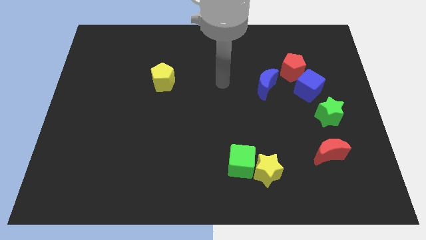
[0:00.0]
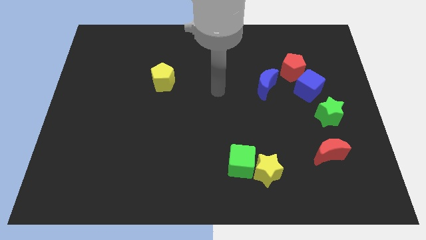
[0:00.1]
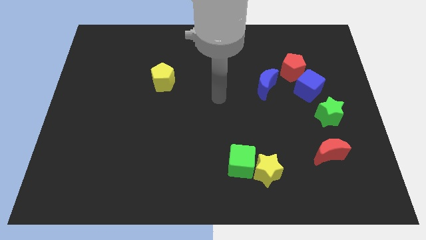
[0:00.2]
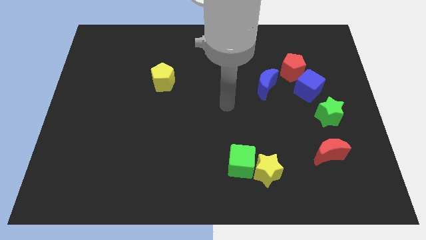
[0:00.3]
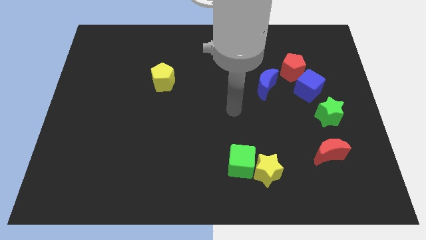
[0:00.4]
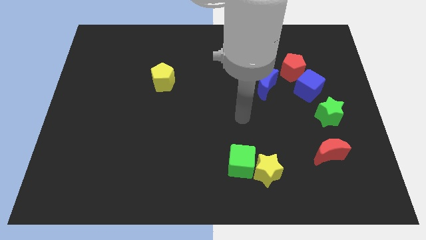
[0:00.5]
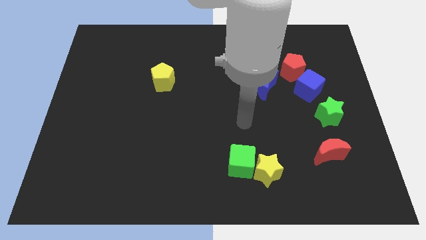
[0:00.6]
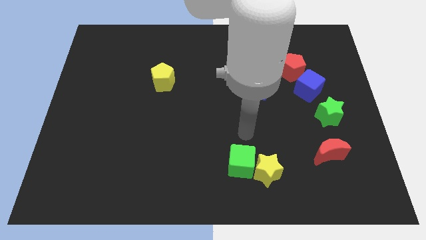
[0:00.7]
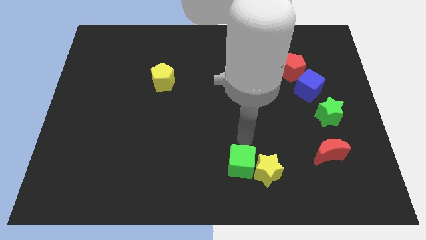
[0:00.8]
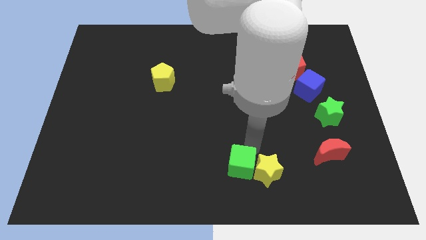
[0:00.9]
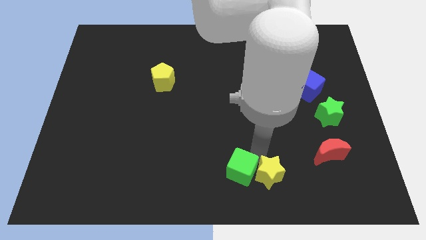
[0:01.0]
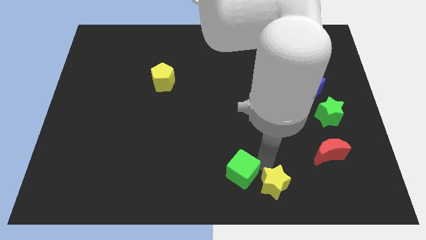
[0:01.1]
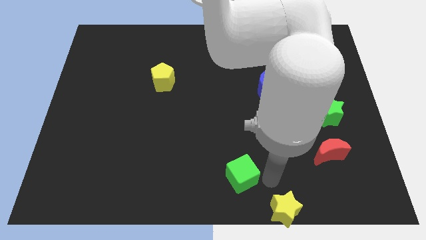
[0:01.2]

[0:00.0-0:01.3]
separate the green cube from the yellow star

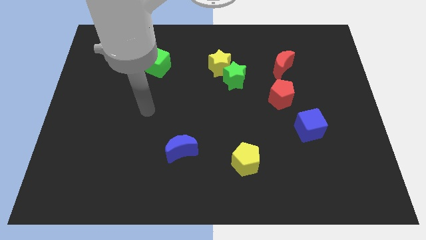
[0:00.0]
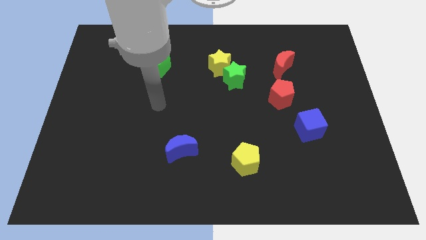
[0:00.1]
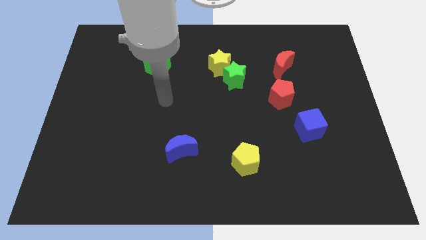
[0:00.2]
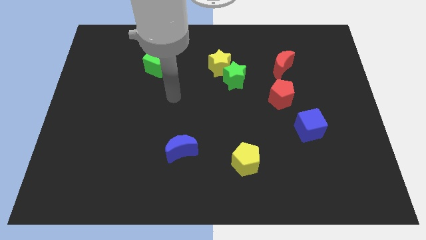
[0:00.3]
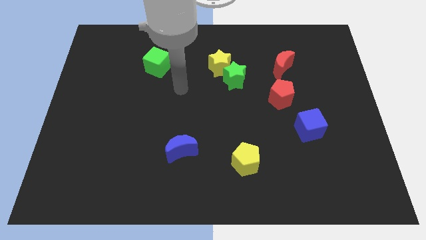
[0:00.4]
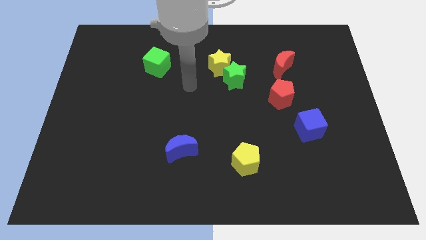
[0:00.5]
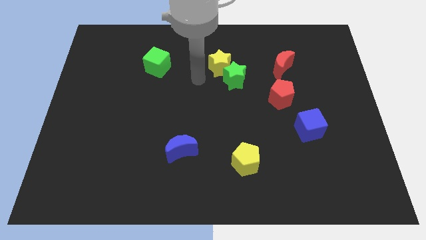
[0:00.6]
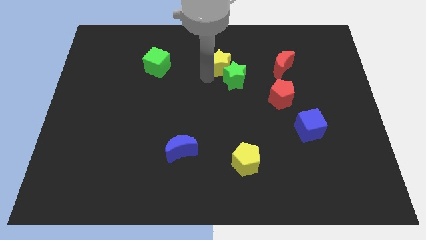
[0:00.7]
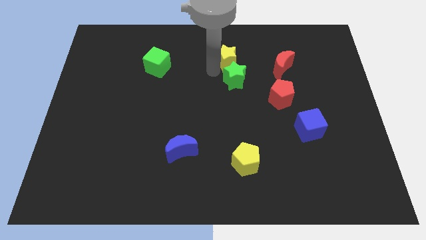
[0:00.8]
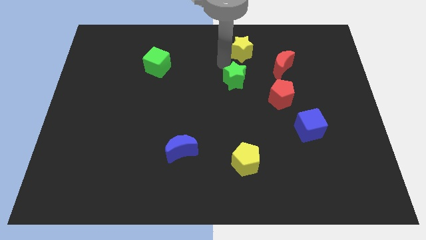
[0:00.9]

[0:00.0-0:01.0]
pull the green star apart from the yellow star

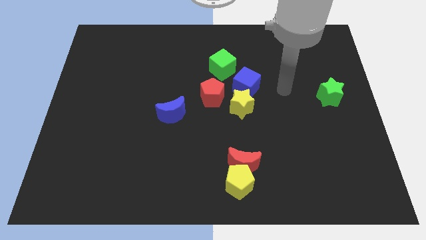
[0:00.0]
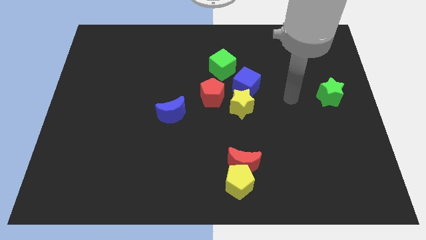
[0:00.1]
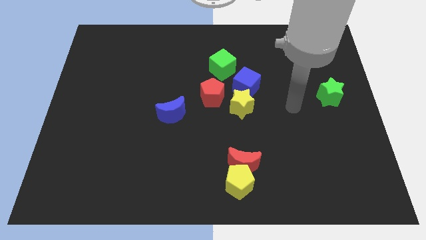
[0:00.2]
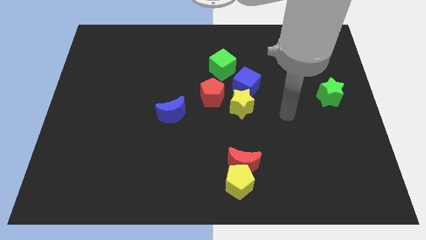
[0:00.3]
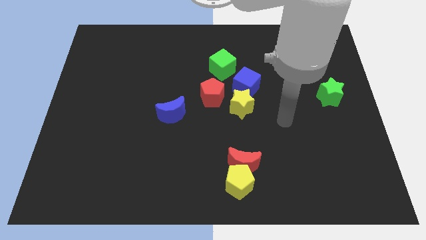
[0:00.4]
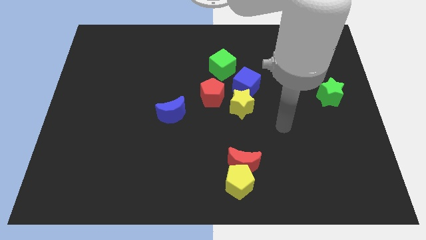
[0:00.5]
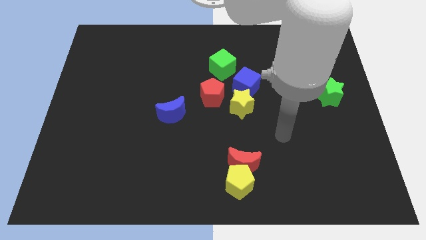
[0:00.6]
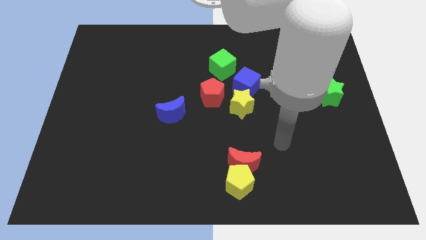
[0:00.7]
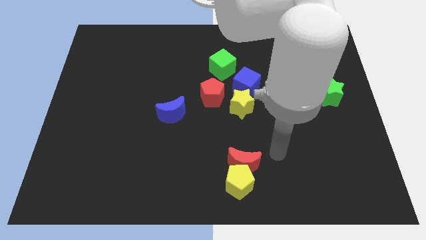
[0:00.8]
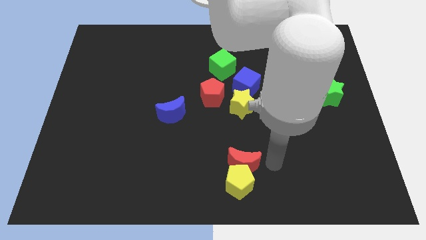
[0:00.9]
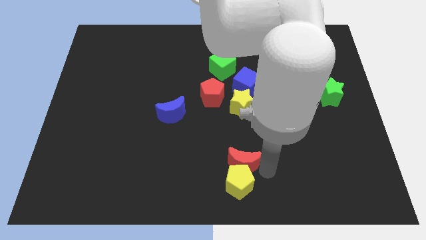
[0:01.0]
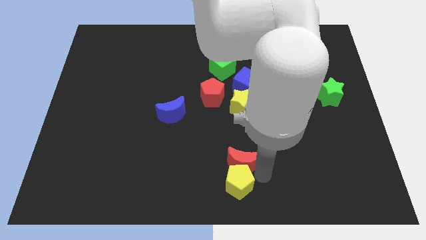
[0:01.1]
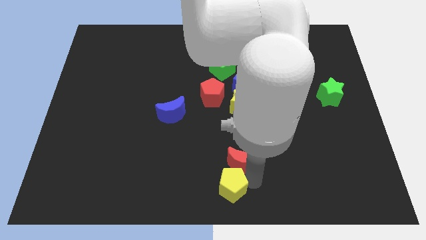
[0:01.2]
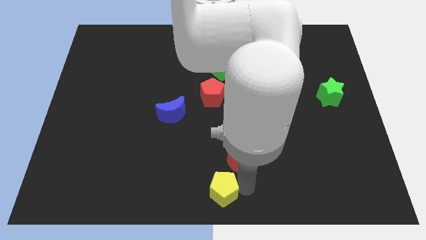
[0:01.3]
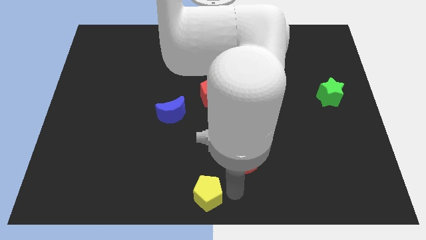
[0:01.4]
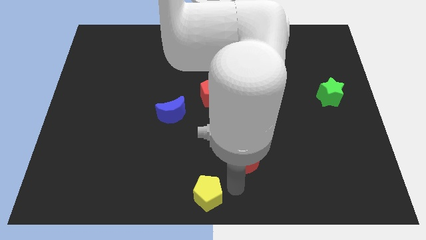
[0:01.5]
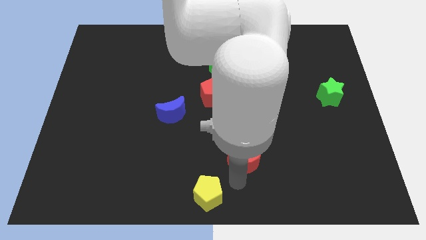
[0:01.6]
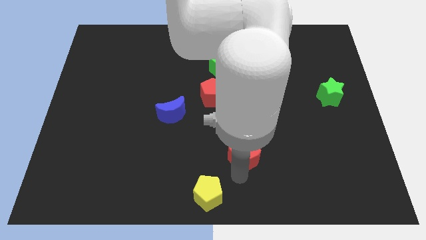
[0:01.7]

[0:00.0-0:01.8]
pull the red moon apart from the yellow pentagon

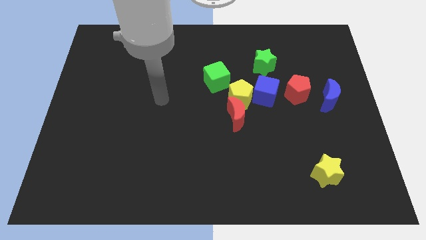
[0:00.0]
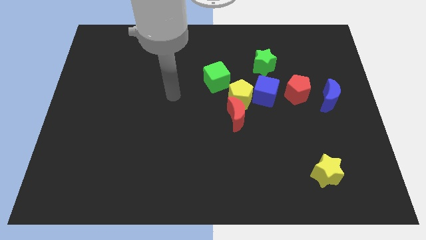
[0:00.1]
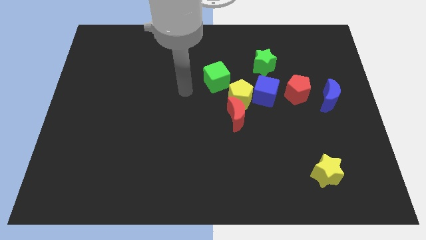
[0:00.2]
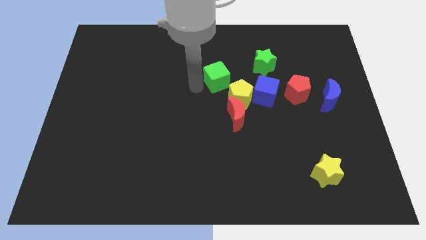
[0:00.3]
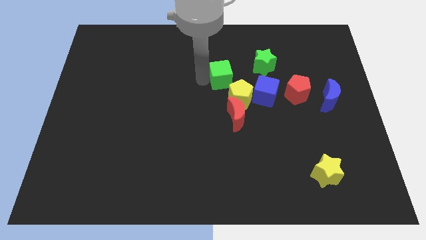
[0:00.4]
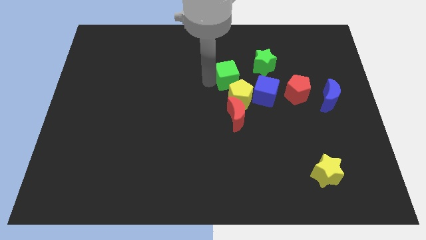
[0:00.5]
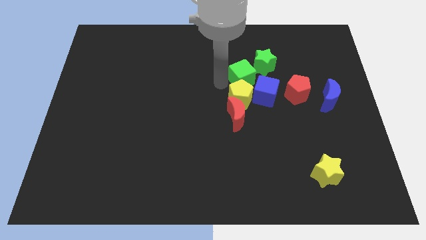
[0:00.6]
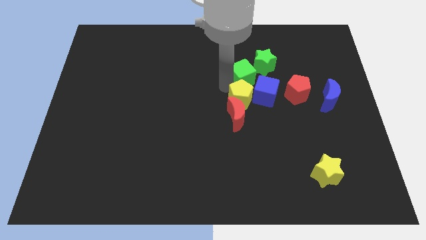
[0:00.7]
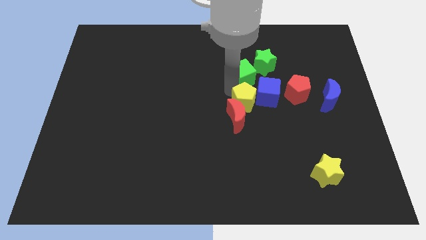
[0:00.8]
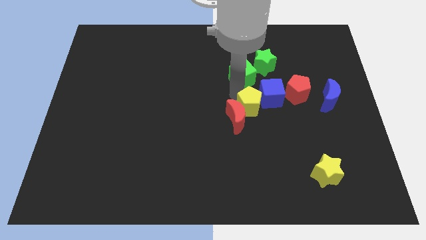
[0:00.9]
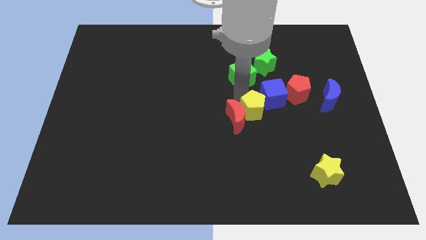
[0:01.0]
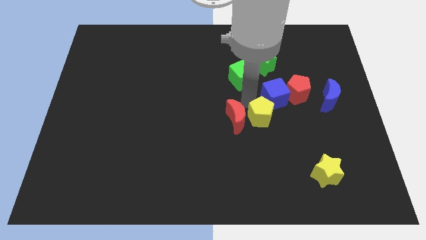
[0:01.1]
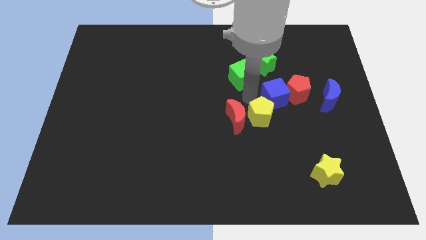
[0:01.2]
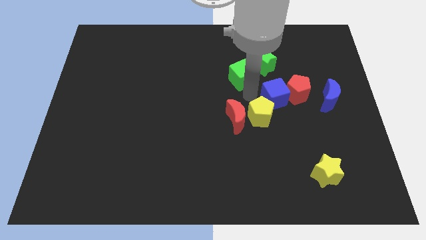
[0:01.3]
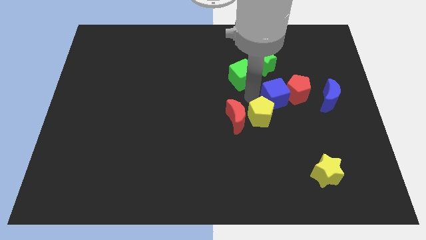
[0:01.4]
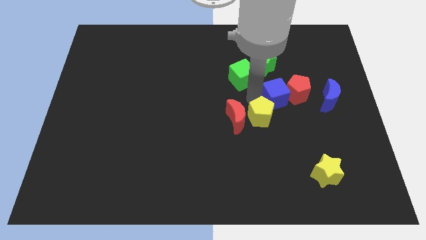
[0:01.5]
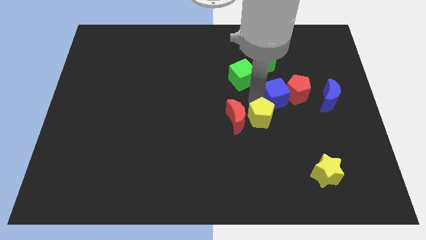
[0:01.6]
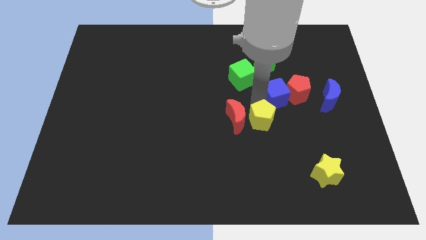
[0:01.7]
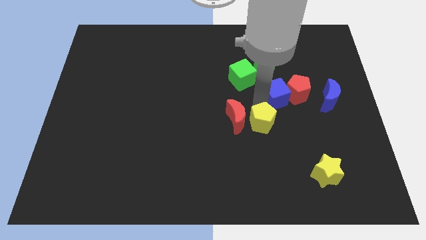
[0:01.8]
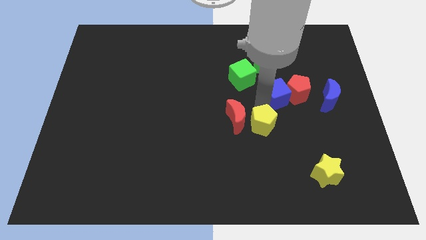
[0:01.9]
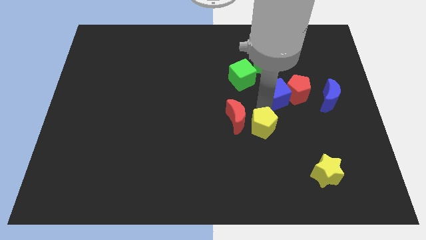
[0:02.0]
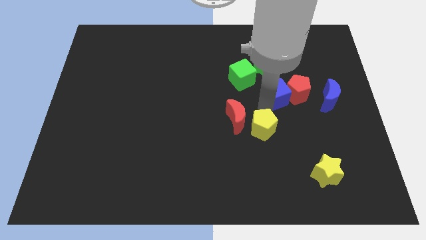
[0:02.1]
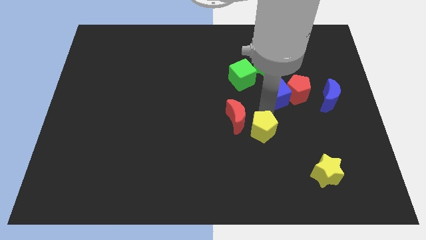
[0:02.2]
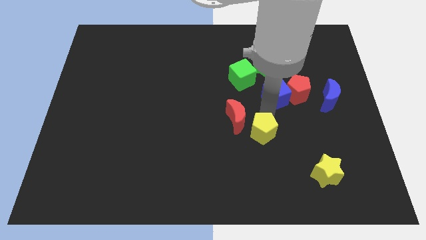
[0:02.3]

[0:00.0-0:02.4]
pull the yellow pentagon apart from the red moon, blue cube, and green cube

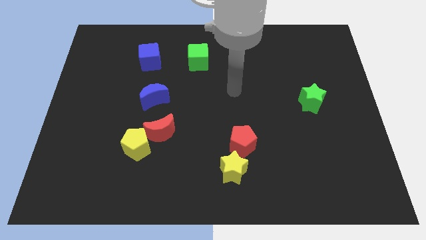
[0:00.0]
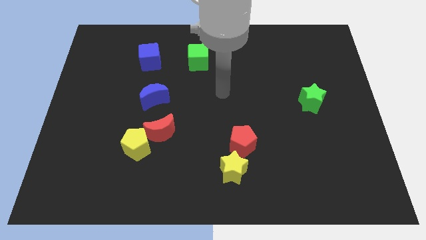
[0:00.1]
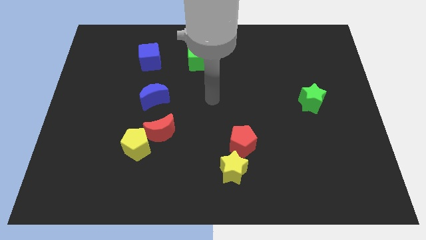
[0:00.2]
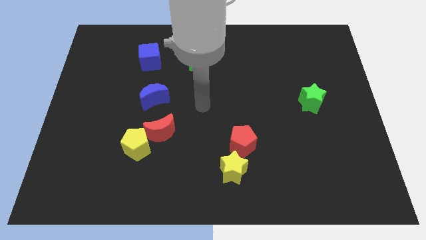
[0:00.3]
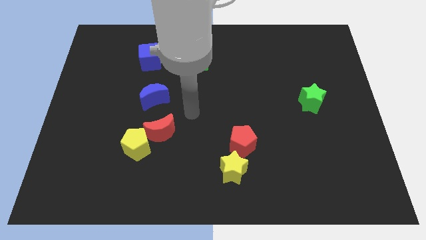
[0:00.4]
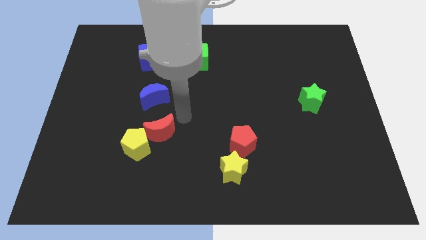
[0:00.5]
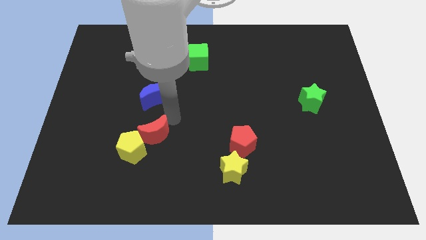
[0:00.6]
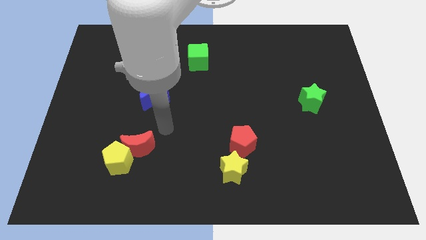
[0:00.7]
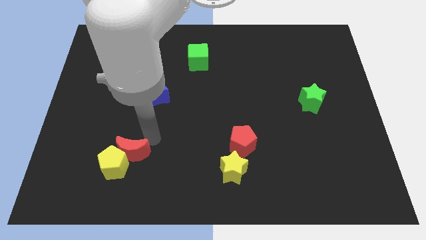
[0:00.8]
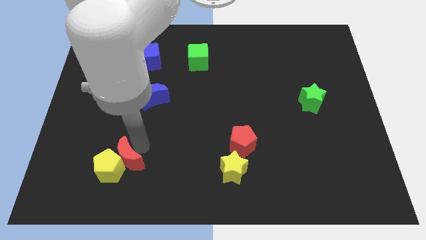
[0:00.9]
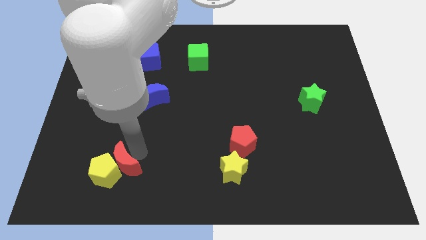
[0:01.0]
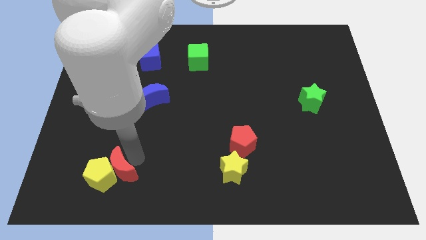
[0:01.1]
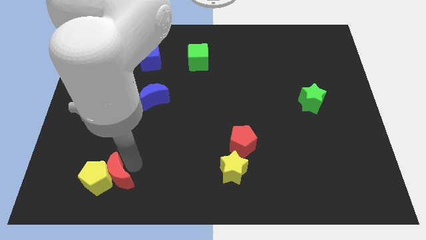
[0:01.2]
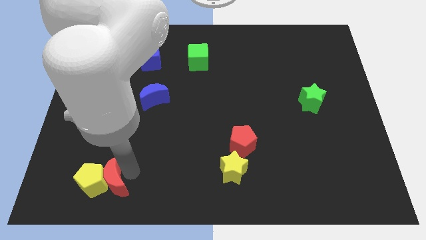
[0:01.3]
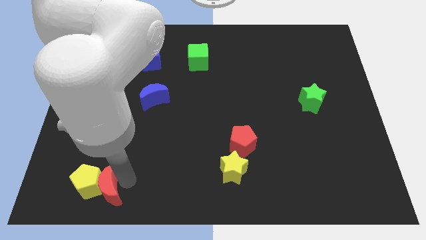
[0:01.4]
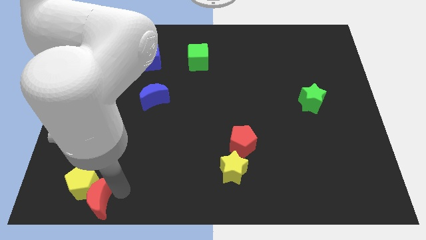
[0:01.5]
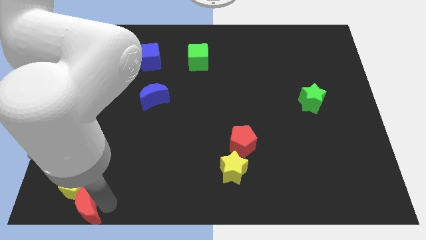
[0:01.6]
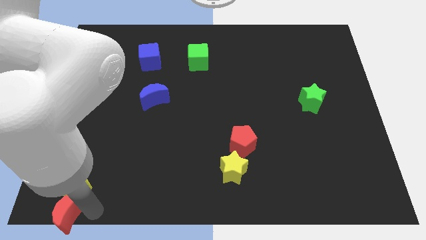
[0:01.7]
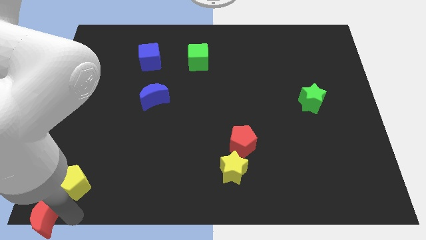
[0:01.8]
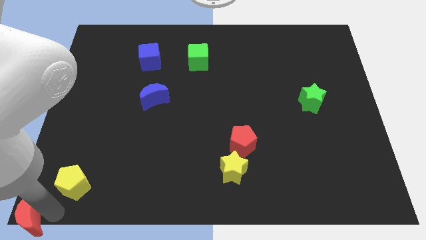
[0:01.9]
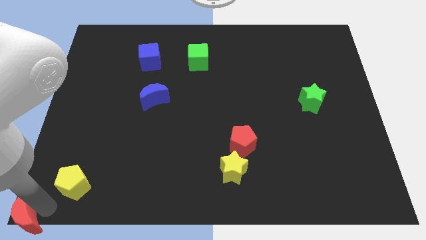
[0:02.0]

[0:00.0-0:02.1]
separate the yellow pentagon from the red moon

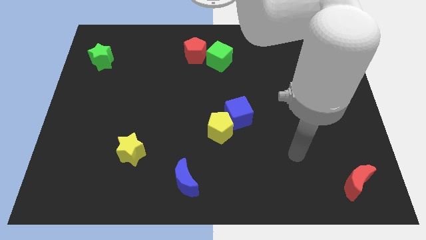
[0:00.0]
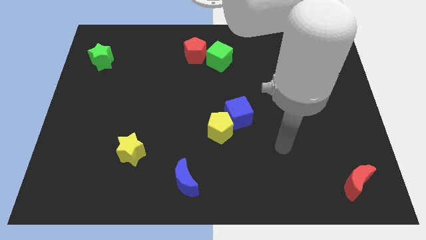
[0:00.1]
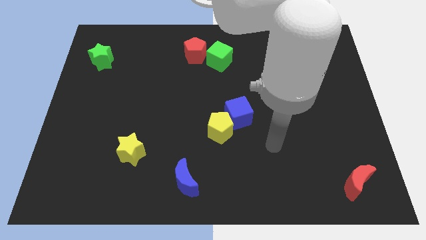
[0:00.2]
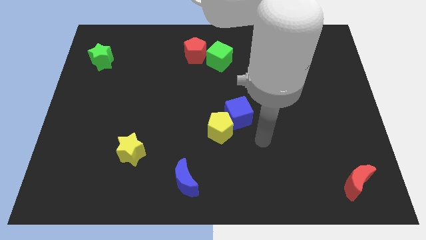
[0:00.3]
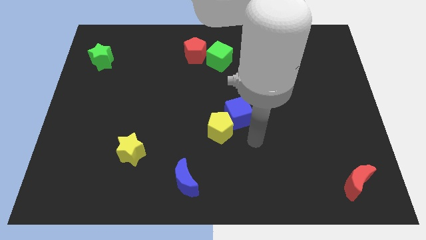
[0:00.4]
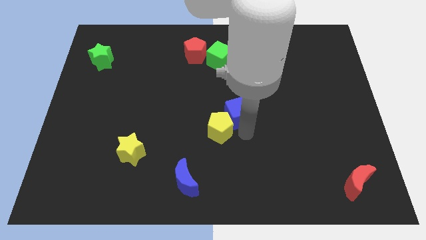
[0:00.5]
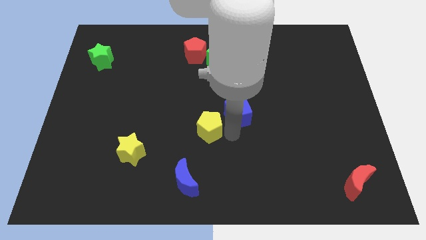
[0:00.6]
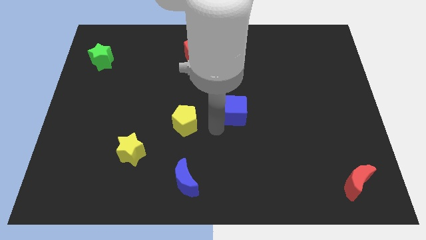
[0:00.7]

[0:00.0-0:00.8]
pull the blue cube apart from the yellow pentagon

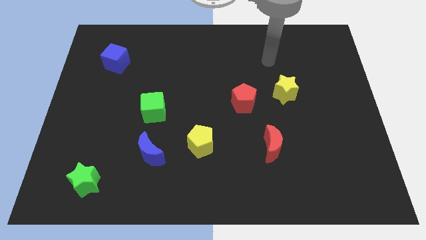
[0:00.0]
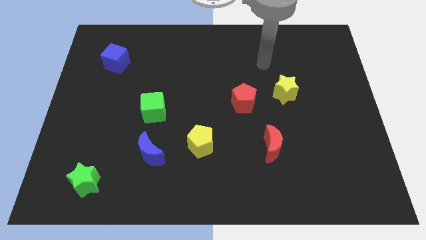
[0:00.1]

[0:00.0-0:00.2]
pull the red pentagon apart from the yellow star
